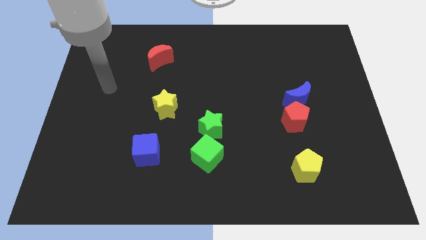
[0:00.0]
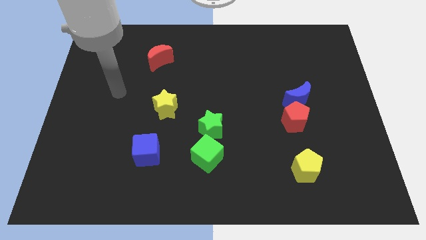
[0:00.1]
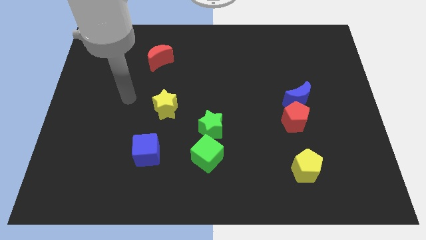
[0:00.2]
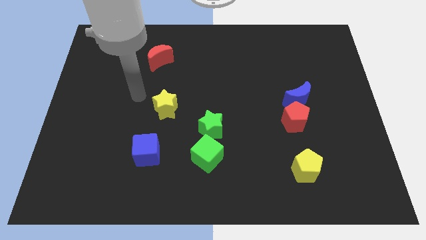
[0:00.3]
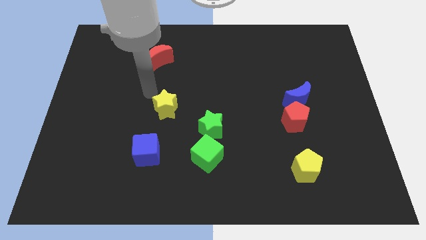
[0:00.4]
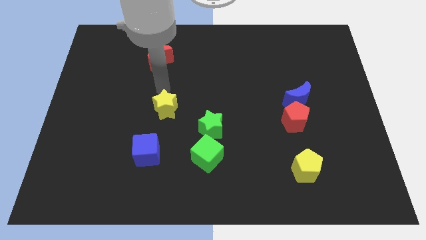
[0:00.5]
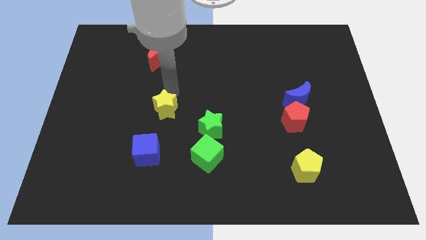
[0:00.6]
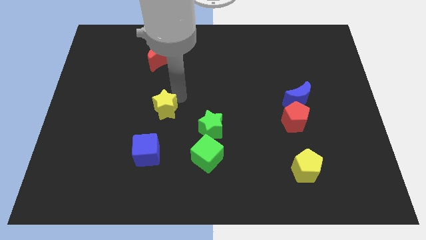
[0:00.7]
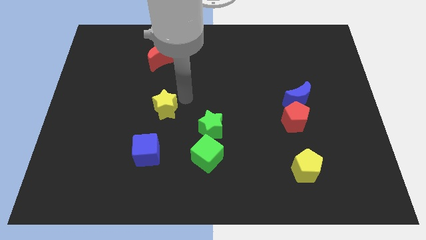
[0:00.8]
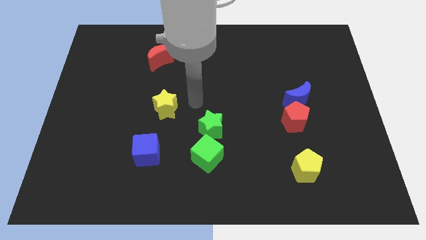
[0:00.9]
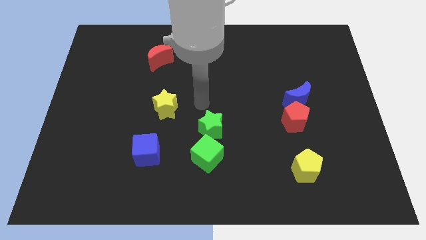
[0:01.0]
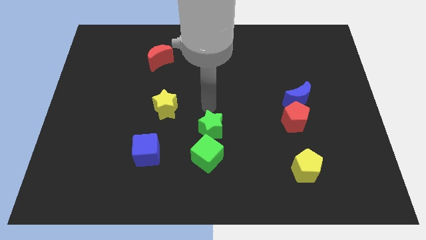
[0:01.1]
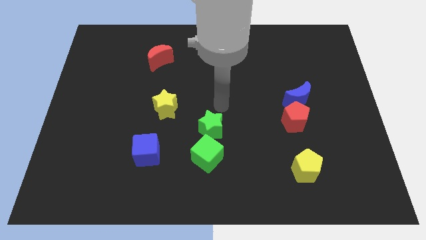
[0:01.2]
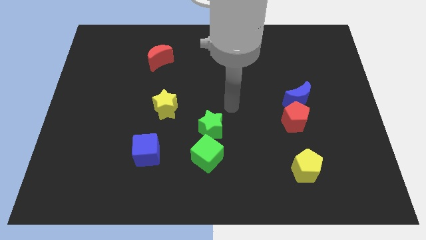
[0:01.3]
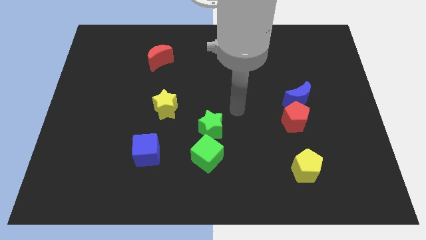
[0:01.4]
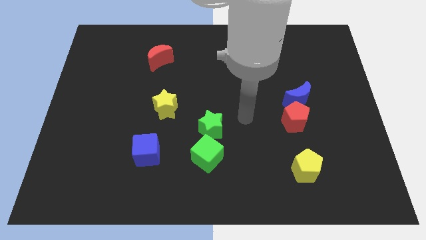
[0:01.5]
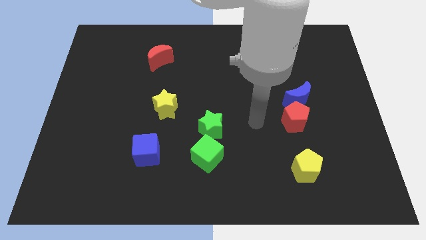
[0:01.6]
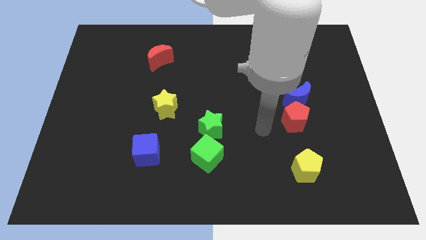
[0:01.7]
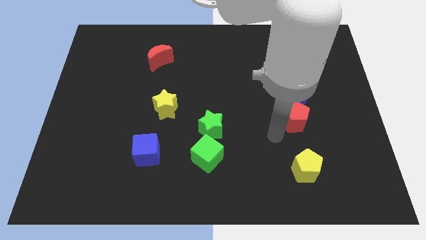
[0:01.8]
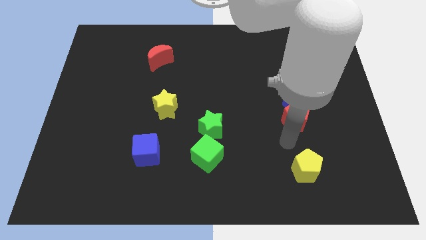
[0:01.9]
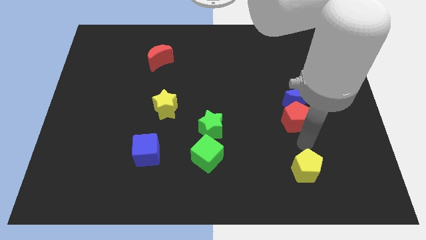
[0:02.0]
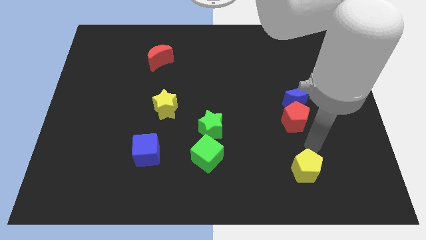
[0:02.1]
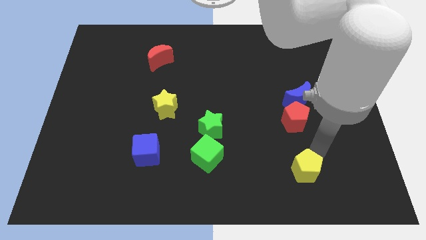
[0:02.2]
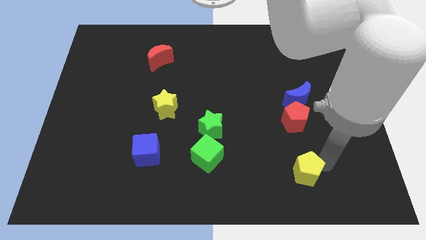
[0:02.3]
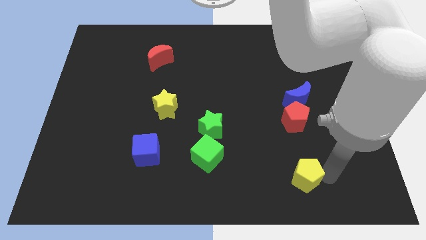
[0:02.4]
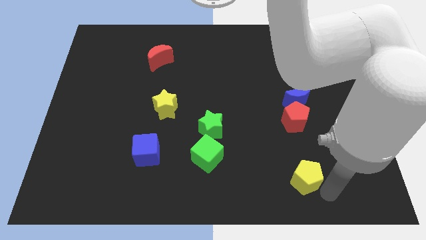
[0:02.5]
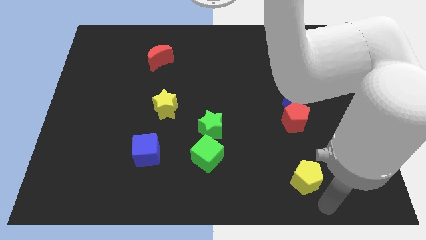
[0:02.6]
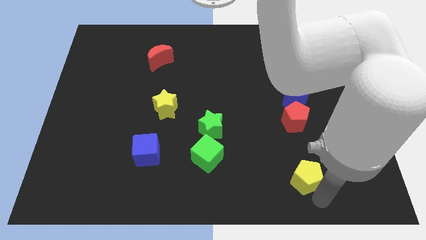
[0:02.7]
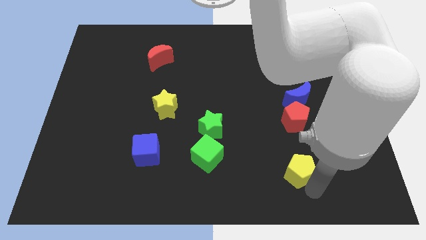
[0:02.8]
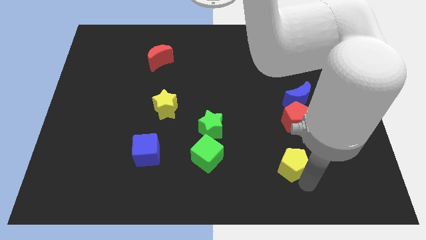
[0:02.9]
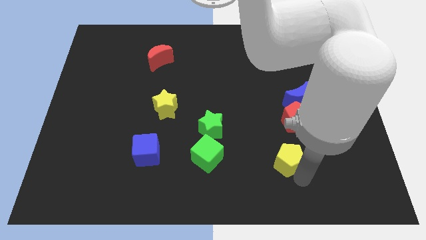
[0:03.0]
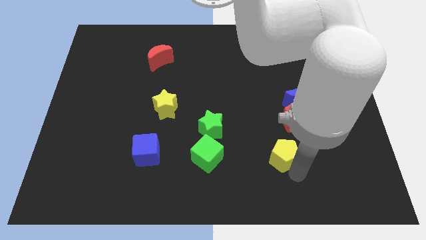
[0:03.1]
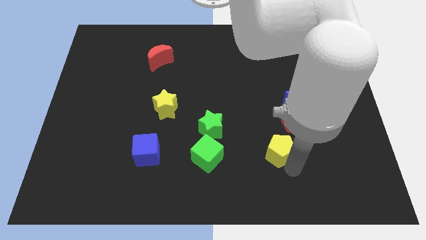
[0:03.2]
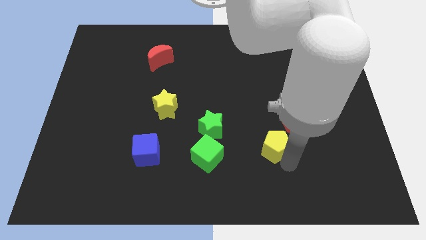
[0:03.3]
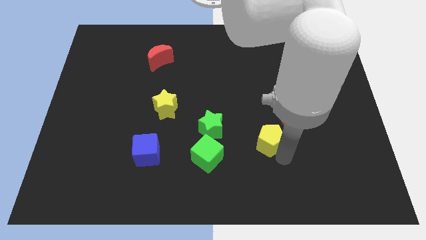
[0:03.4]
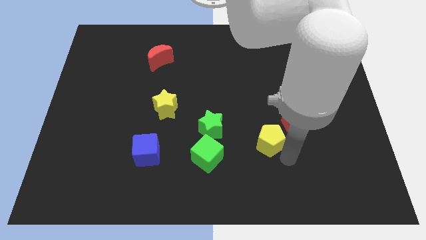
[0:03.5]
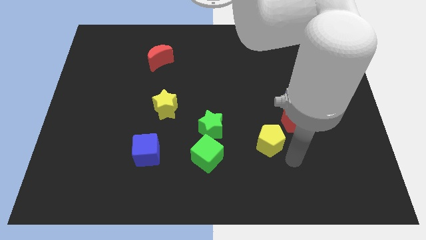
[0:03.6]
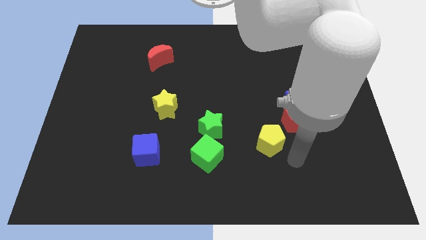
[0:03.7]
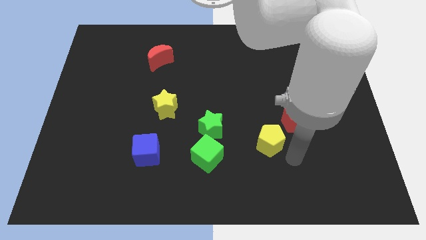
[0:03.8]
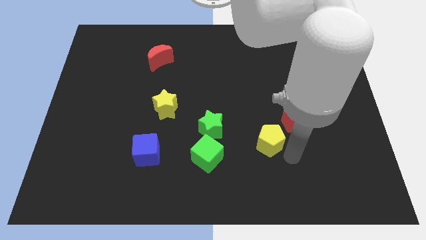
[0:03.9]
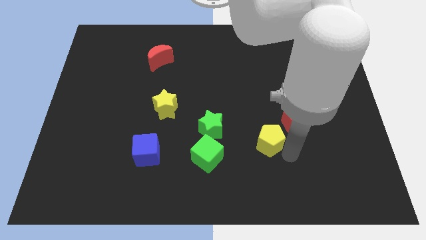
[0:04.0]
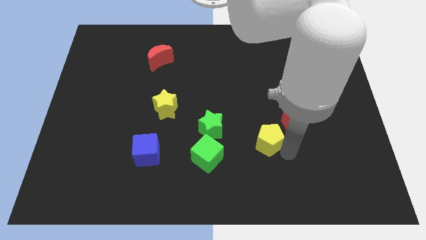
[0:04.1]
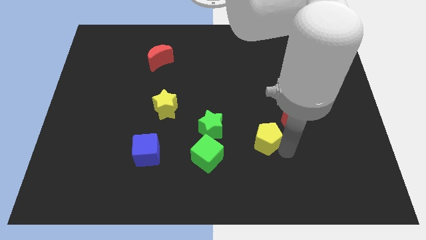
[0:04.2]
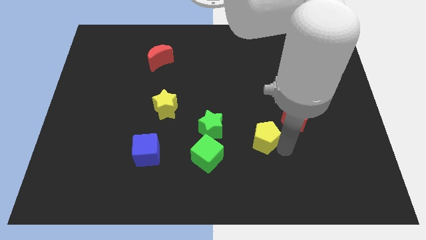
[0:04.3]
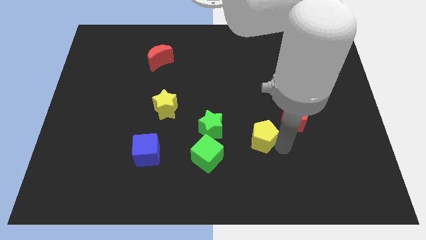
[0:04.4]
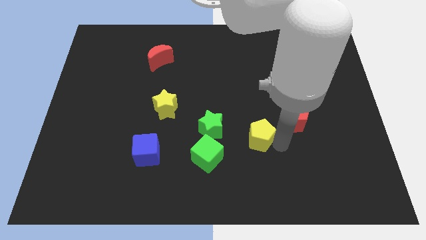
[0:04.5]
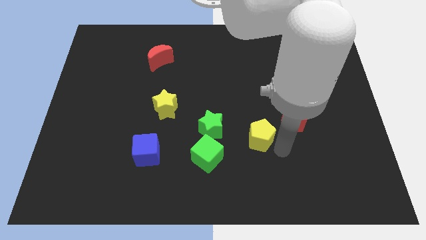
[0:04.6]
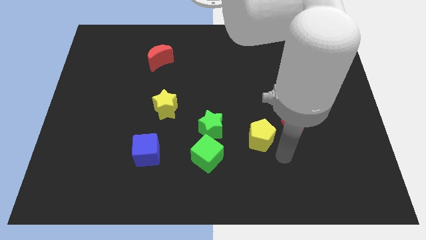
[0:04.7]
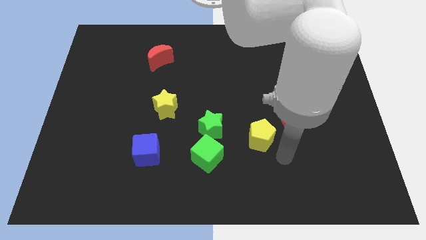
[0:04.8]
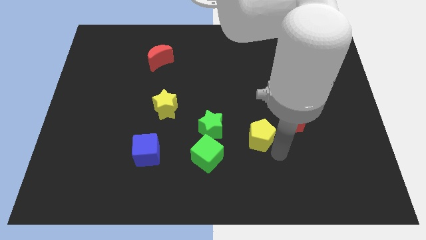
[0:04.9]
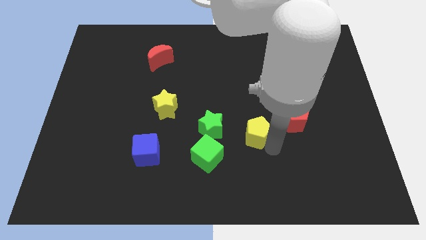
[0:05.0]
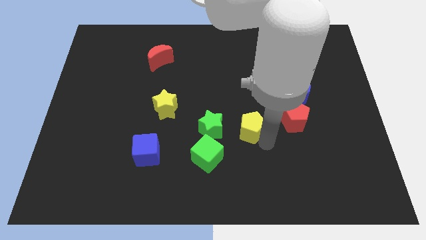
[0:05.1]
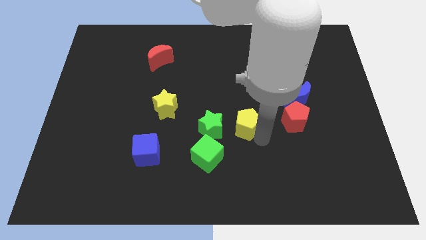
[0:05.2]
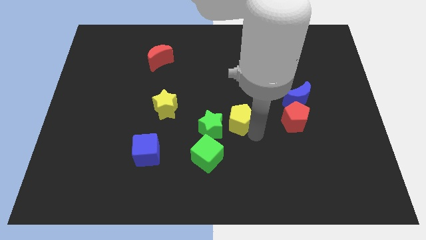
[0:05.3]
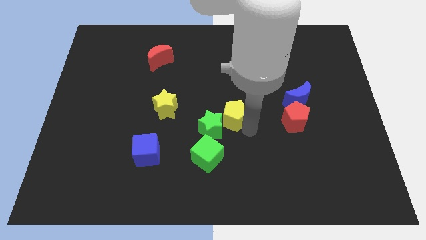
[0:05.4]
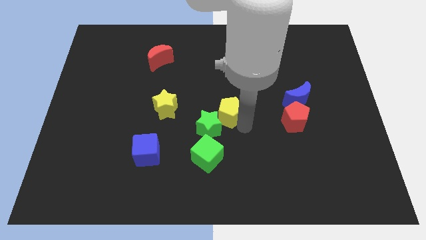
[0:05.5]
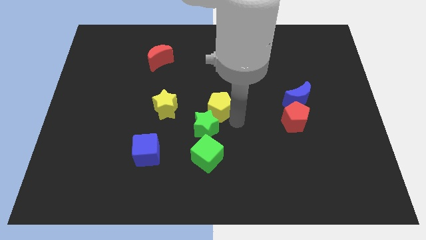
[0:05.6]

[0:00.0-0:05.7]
move the yellow pentagon to the top of the green star

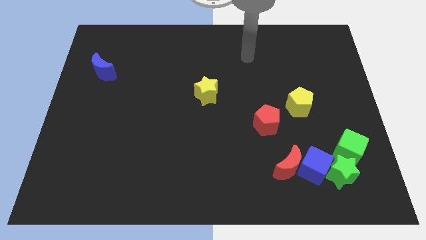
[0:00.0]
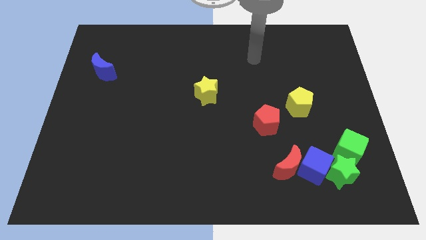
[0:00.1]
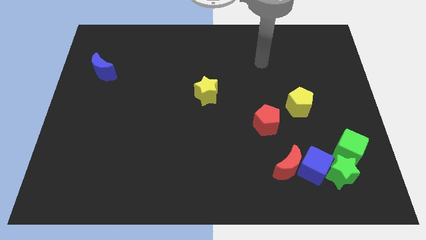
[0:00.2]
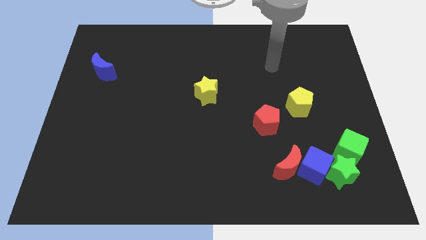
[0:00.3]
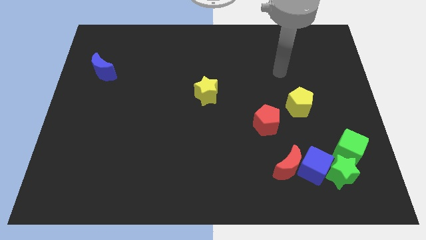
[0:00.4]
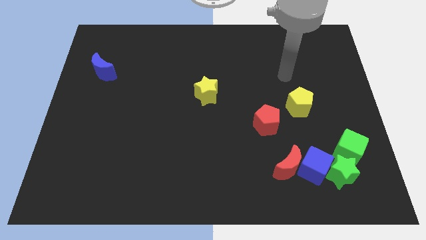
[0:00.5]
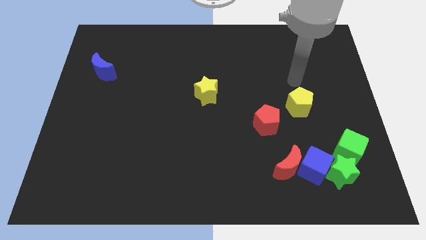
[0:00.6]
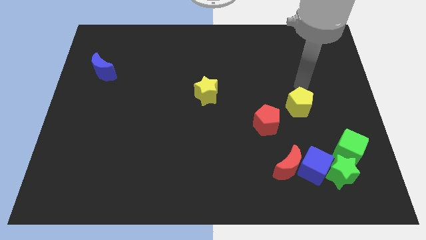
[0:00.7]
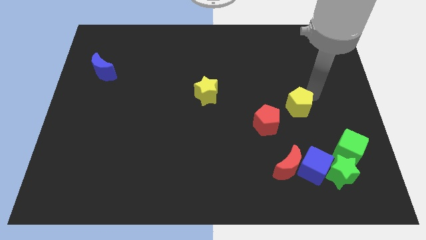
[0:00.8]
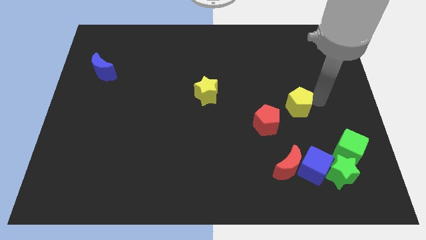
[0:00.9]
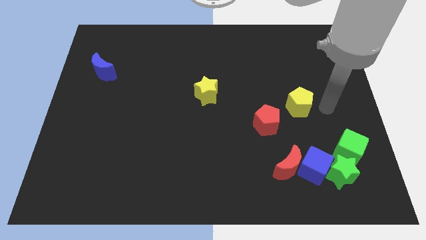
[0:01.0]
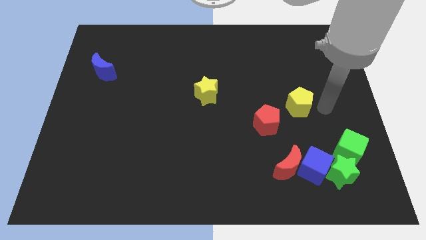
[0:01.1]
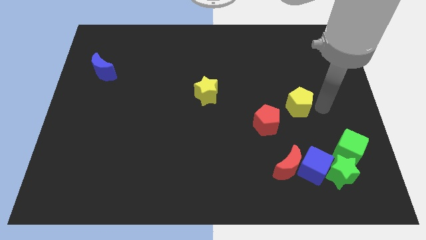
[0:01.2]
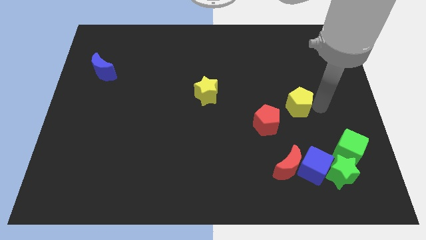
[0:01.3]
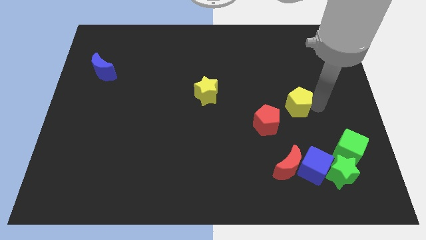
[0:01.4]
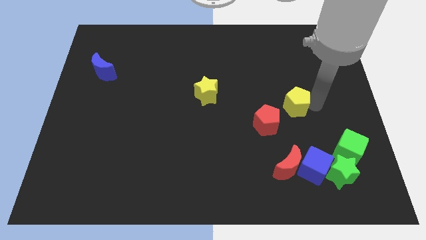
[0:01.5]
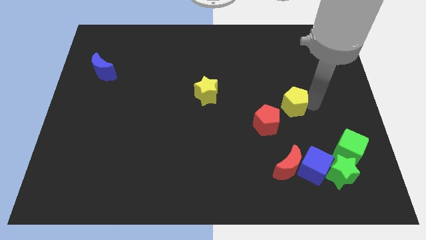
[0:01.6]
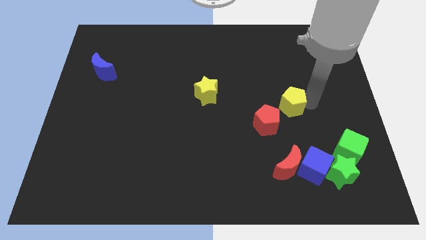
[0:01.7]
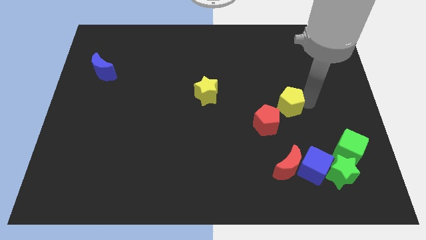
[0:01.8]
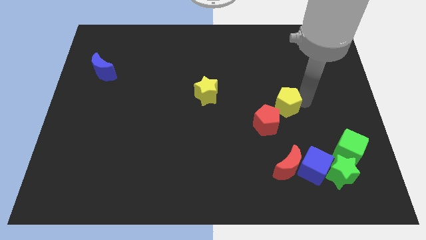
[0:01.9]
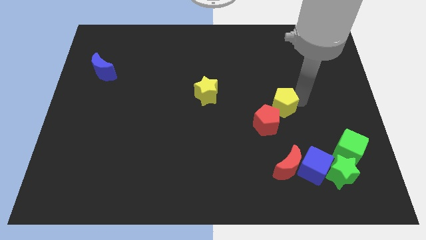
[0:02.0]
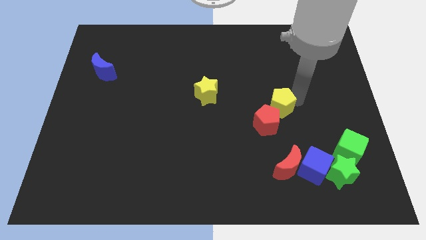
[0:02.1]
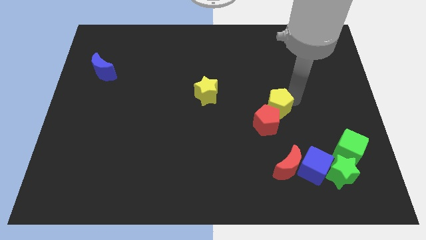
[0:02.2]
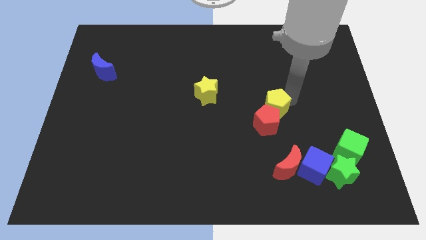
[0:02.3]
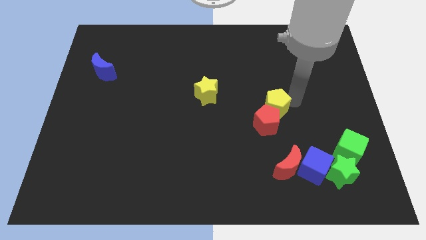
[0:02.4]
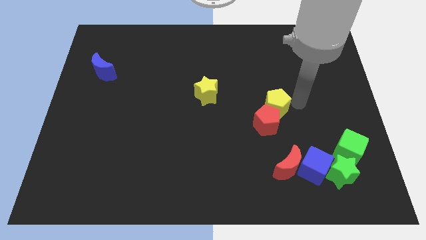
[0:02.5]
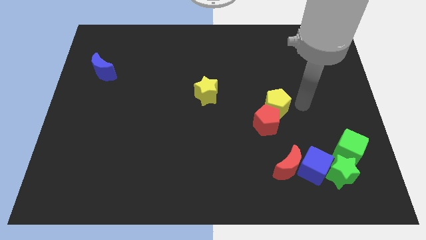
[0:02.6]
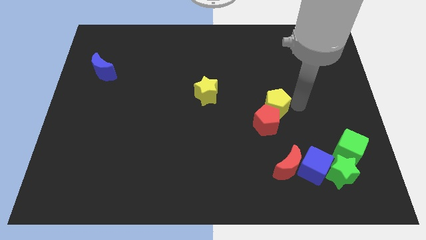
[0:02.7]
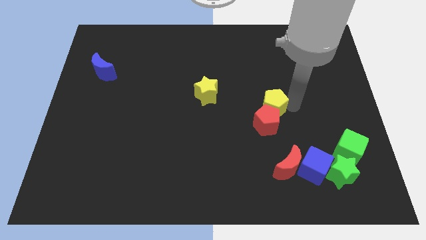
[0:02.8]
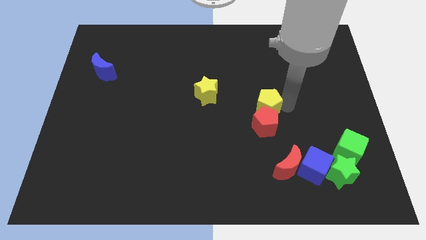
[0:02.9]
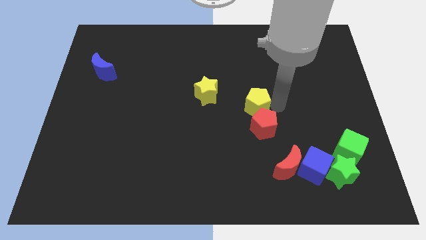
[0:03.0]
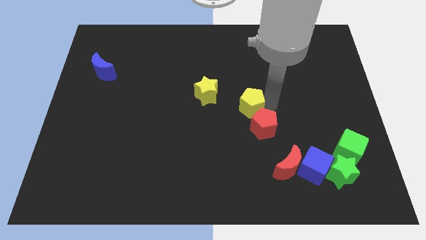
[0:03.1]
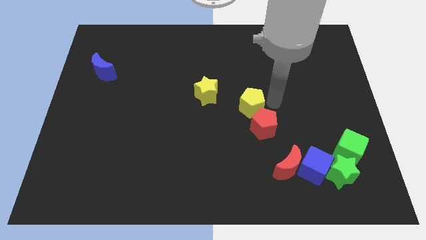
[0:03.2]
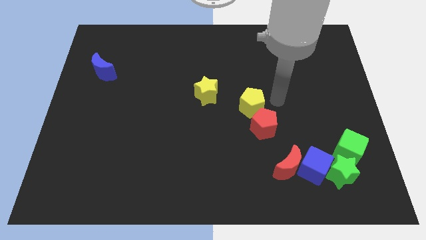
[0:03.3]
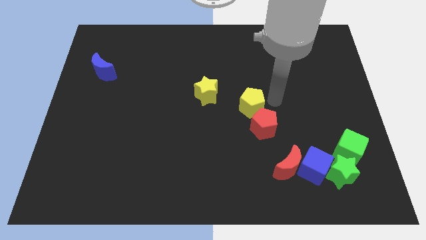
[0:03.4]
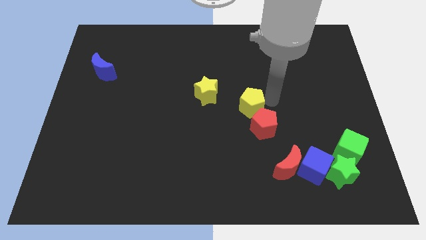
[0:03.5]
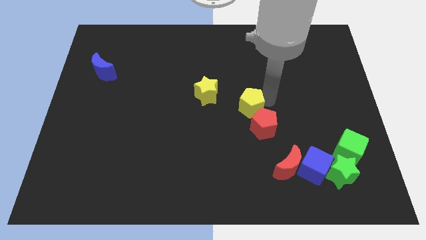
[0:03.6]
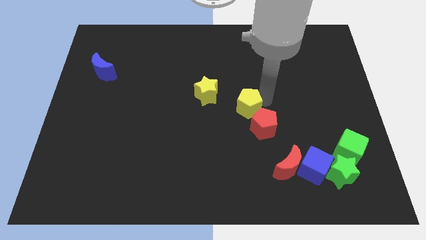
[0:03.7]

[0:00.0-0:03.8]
push the yellow pentagon diagonally down and to the right of the yellow star
